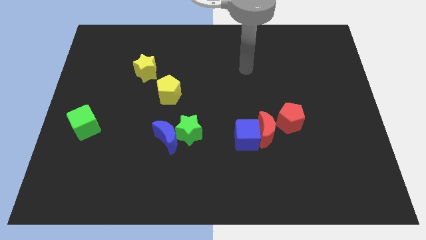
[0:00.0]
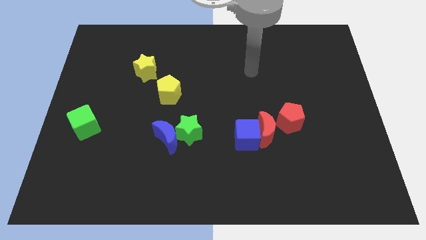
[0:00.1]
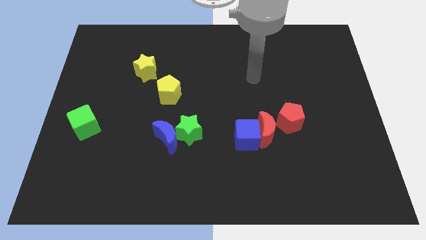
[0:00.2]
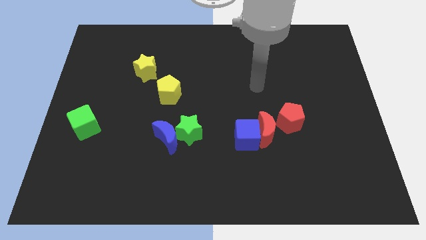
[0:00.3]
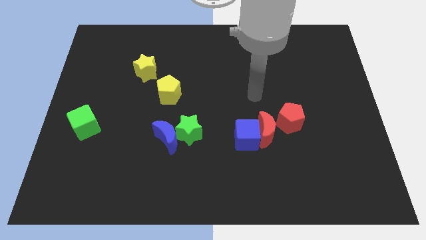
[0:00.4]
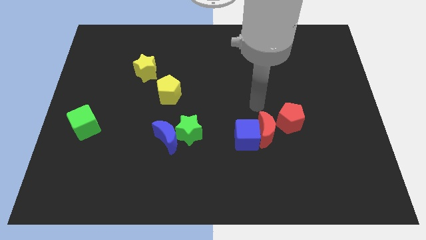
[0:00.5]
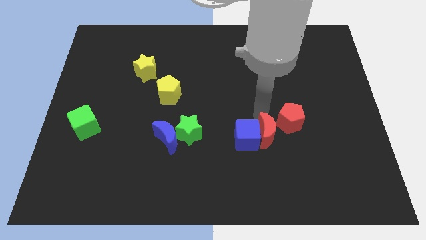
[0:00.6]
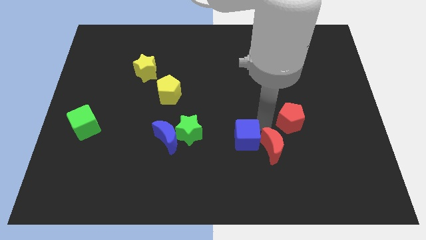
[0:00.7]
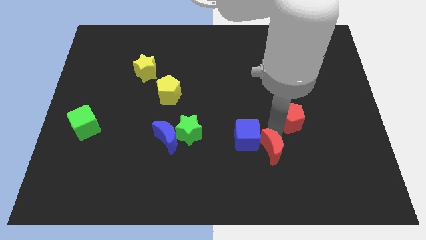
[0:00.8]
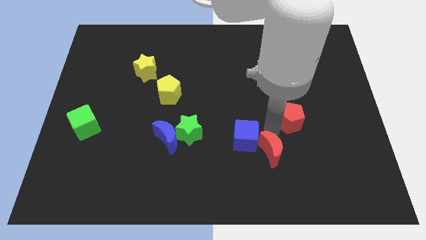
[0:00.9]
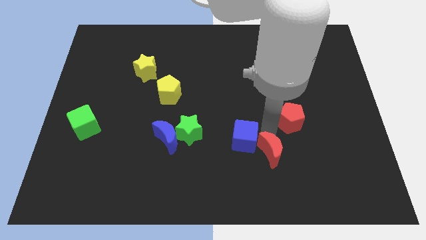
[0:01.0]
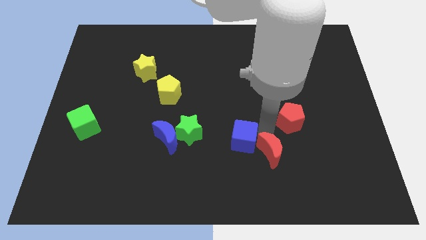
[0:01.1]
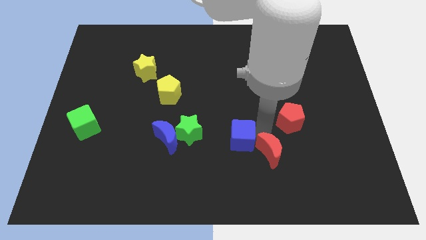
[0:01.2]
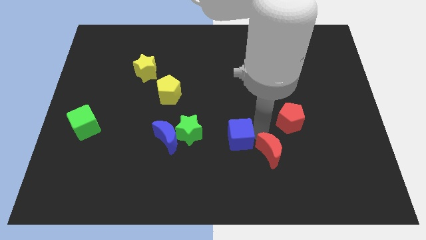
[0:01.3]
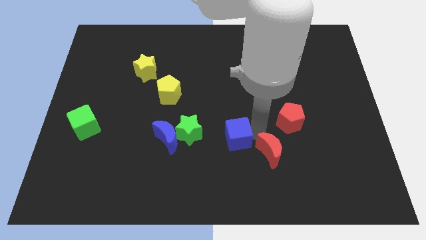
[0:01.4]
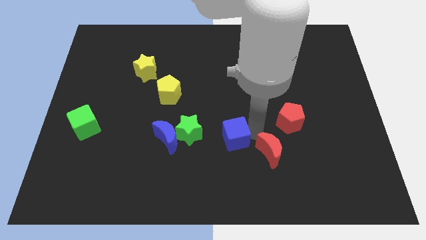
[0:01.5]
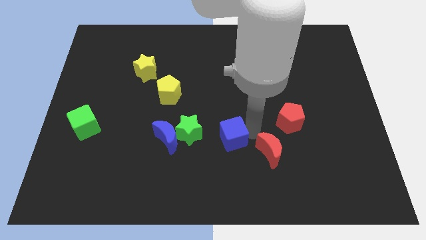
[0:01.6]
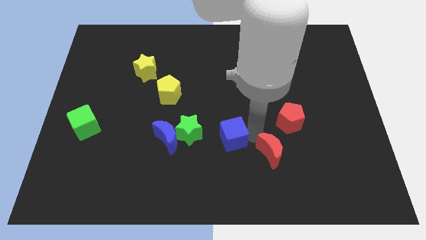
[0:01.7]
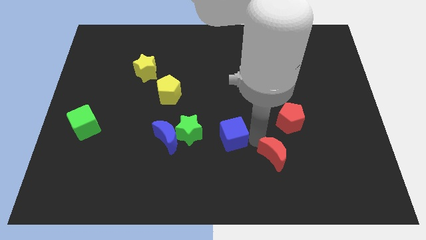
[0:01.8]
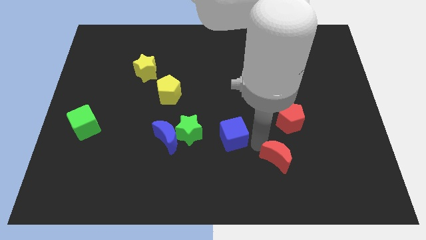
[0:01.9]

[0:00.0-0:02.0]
separate the blue cube from the red moon

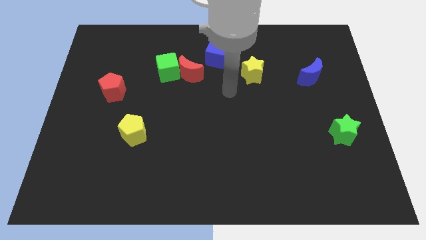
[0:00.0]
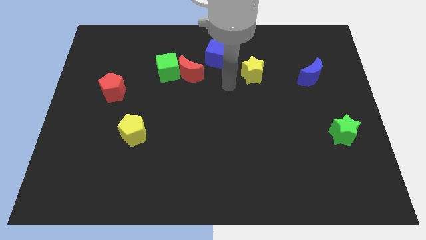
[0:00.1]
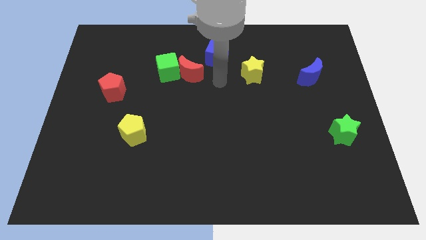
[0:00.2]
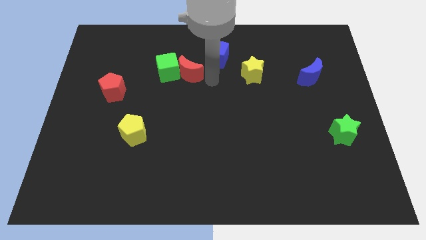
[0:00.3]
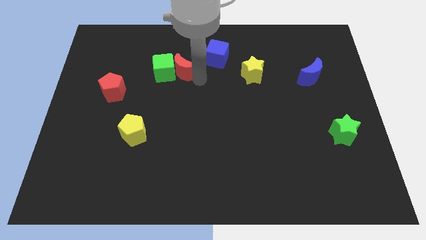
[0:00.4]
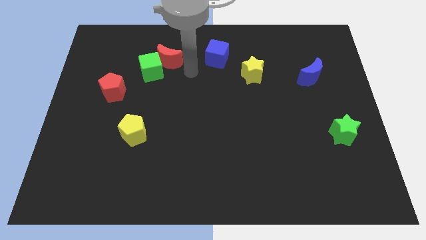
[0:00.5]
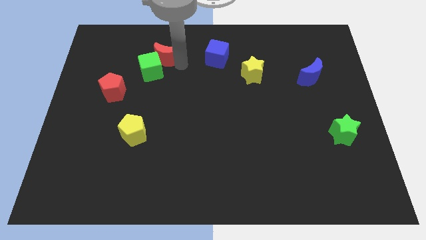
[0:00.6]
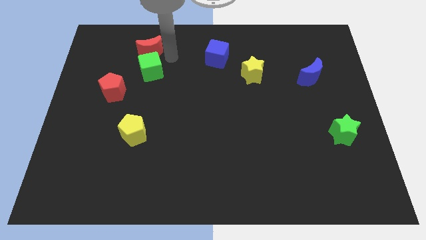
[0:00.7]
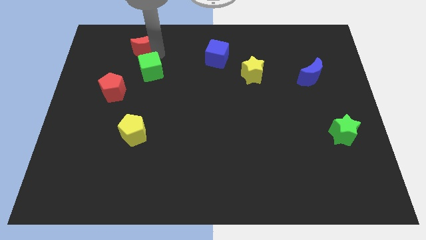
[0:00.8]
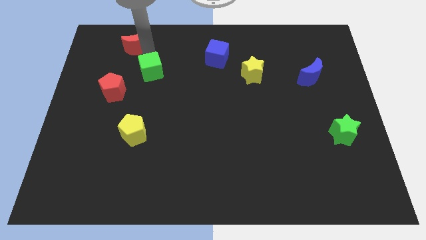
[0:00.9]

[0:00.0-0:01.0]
pull the green cube apart from the red moon

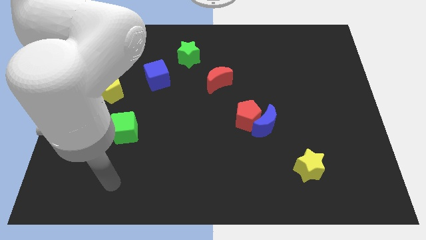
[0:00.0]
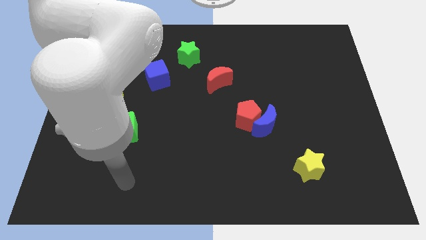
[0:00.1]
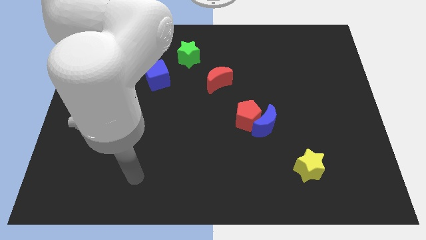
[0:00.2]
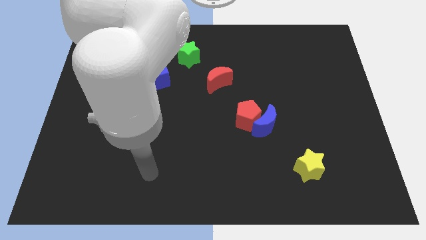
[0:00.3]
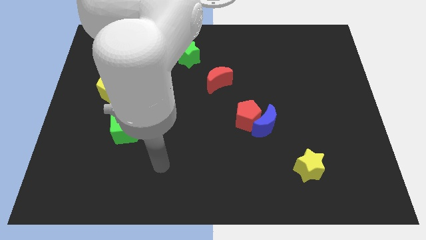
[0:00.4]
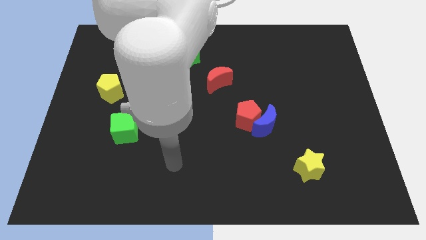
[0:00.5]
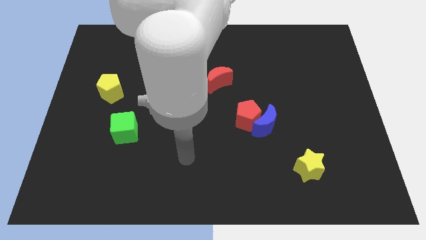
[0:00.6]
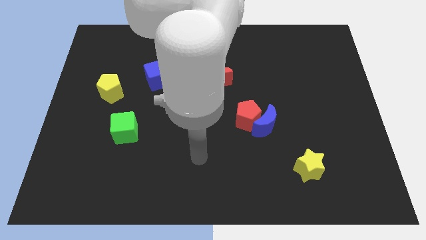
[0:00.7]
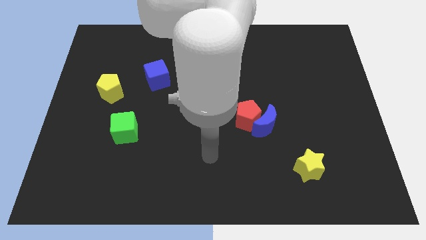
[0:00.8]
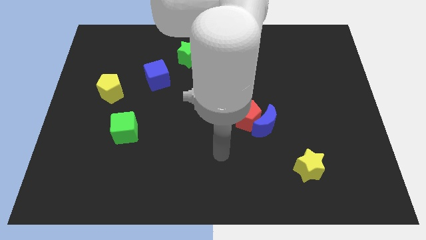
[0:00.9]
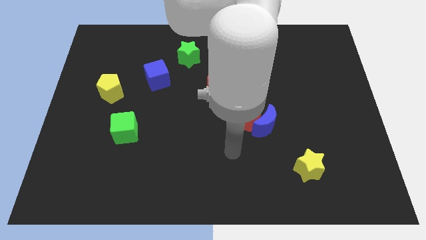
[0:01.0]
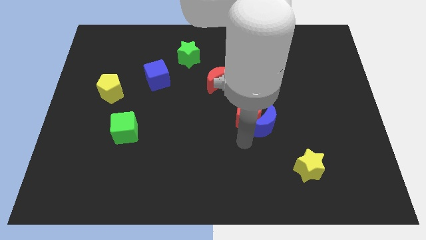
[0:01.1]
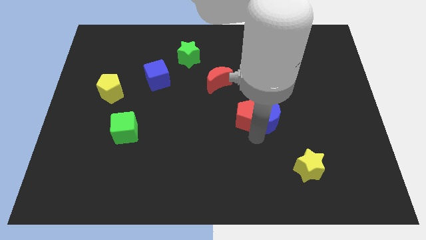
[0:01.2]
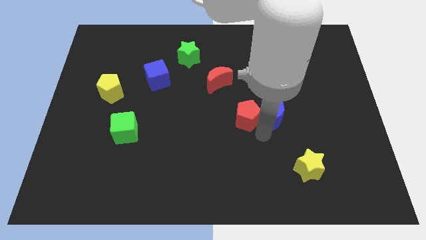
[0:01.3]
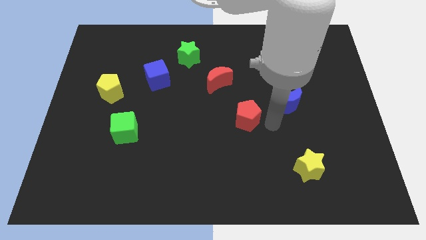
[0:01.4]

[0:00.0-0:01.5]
separate the red pentagon from the blue moon

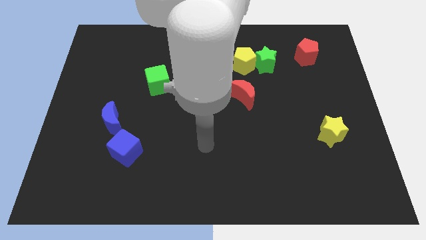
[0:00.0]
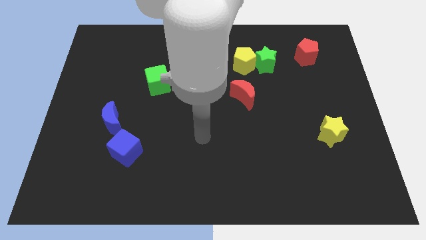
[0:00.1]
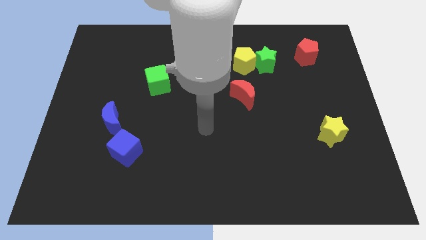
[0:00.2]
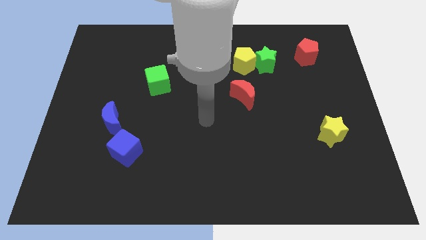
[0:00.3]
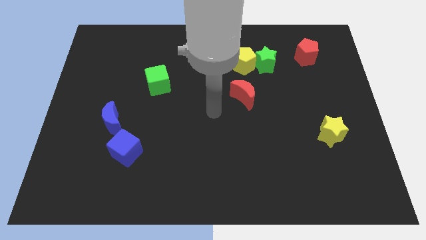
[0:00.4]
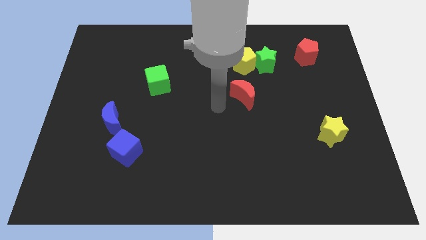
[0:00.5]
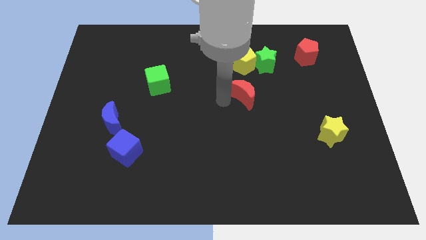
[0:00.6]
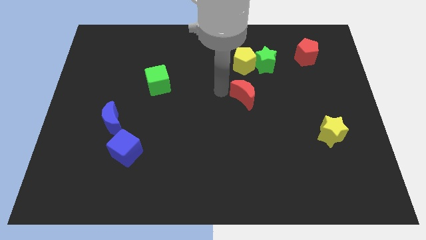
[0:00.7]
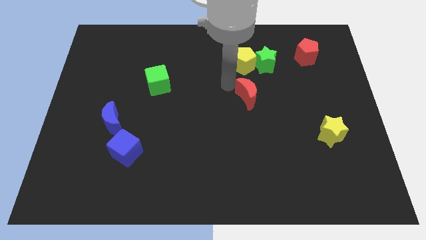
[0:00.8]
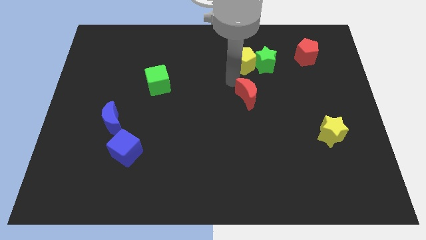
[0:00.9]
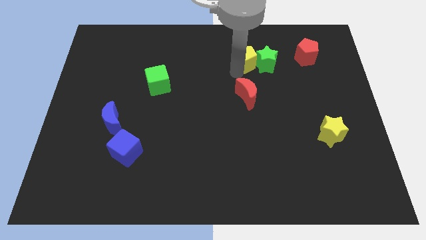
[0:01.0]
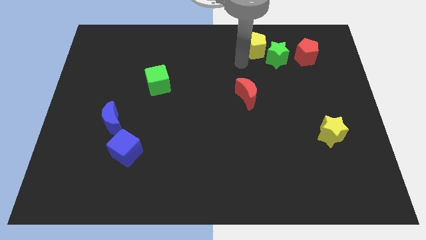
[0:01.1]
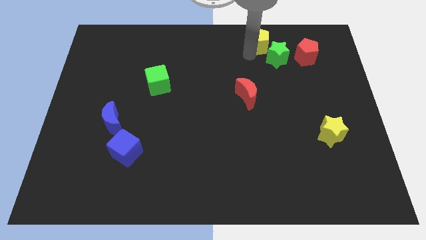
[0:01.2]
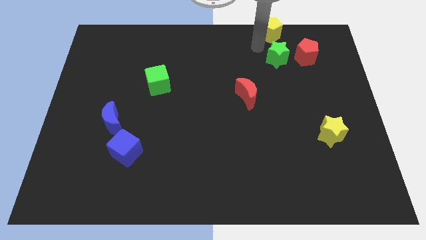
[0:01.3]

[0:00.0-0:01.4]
move the green star away from the yellow pentagon

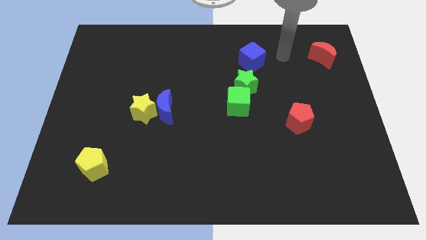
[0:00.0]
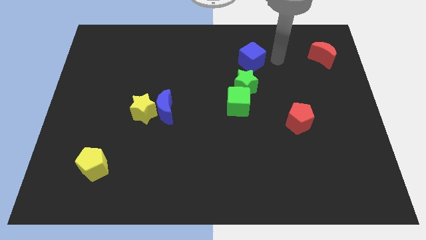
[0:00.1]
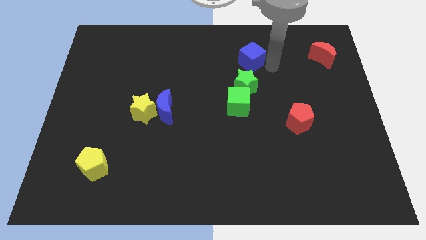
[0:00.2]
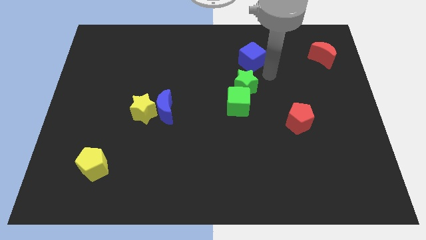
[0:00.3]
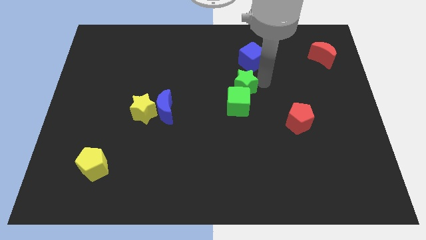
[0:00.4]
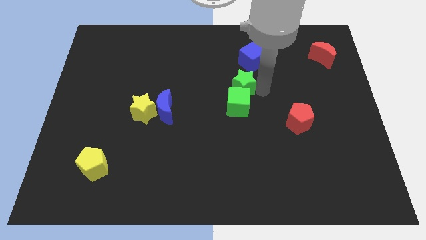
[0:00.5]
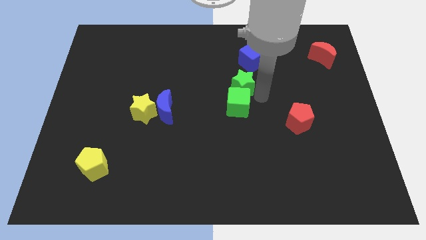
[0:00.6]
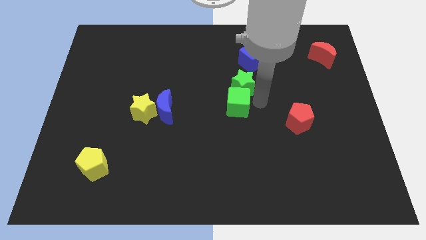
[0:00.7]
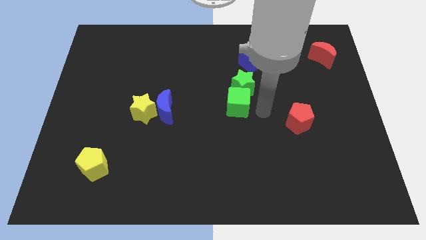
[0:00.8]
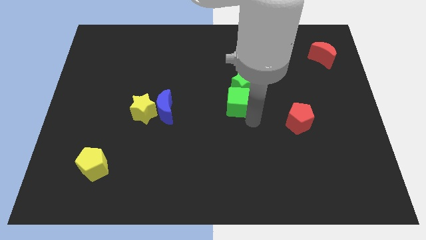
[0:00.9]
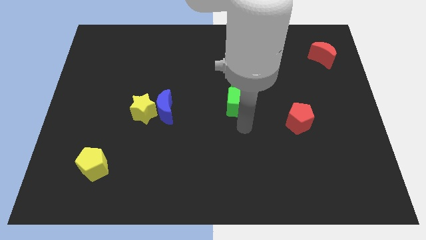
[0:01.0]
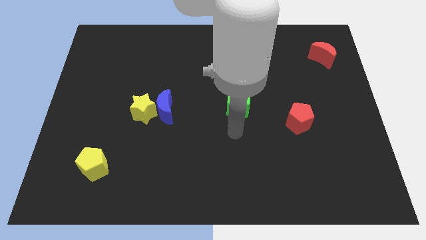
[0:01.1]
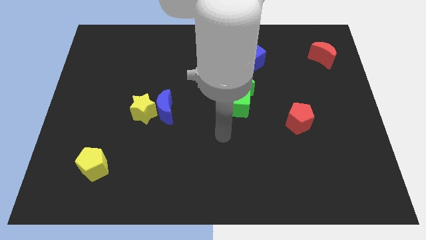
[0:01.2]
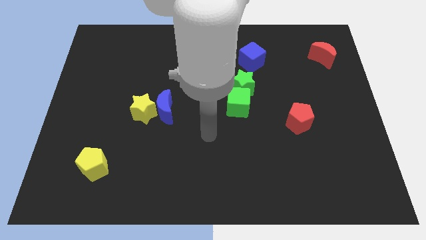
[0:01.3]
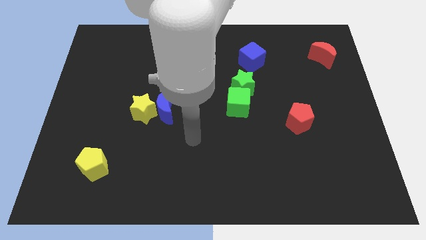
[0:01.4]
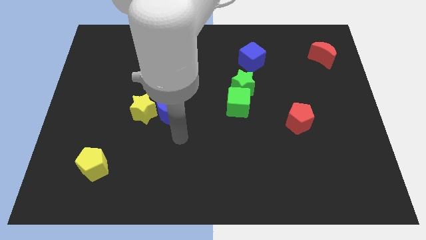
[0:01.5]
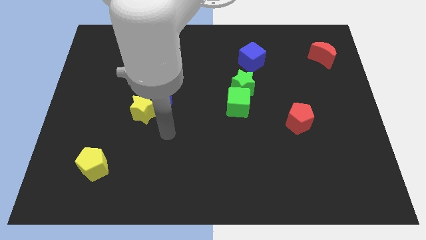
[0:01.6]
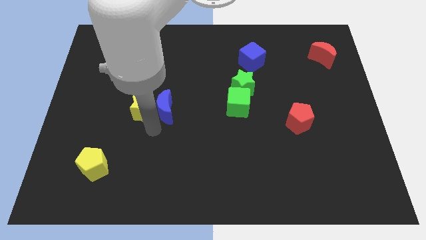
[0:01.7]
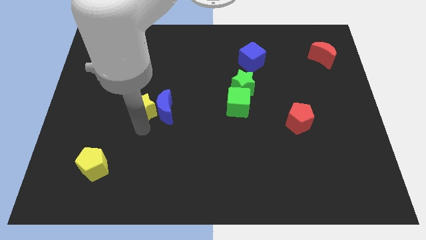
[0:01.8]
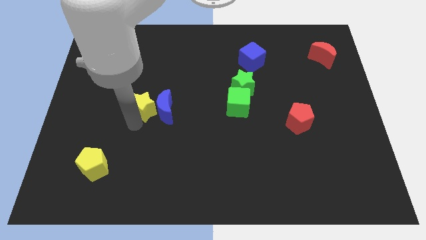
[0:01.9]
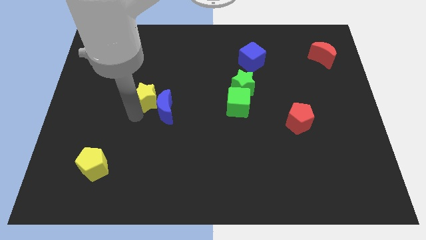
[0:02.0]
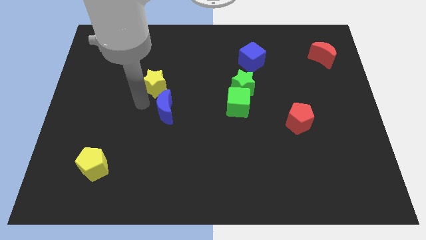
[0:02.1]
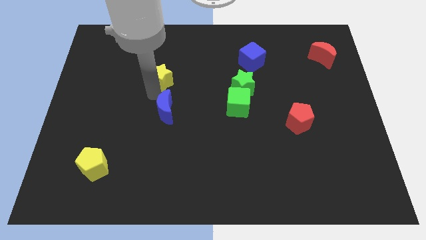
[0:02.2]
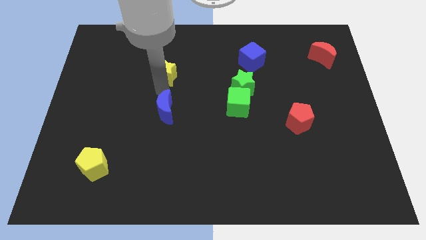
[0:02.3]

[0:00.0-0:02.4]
move the blue moon away from the yellow star

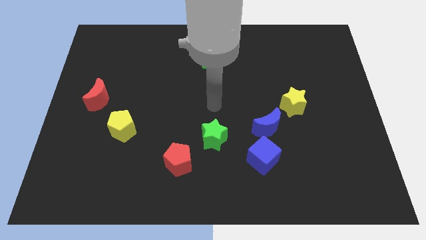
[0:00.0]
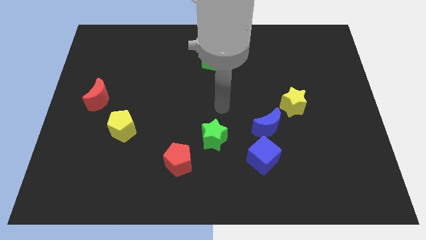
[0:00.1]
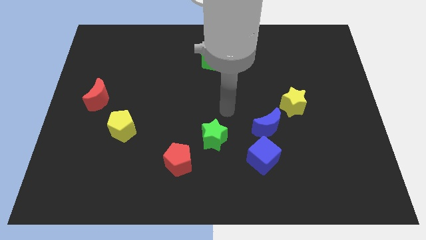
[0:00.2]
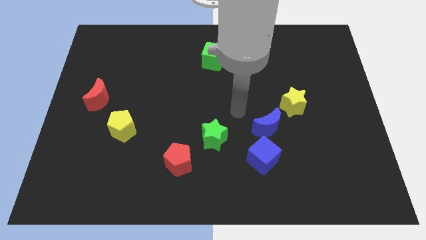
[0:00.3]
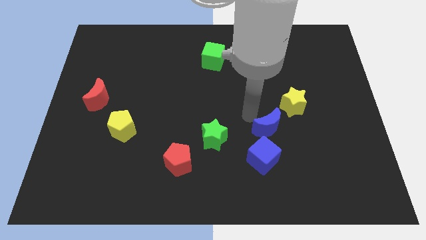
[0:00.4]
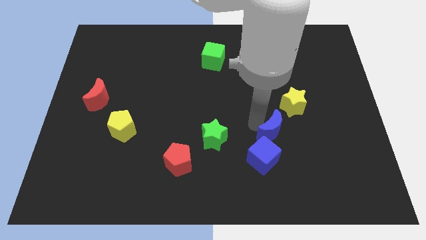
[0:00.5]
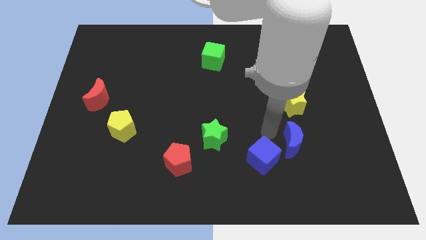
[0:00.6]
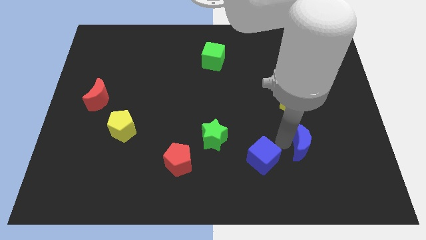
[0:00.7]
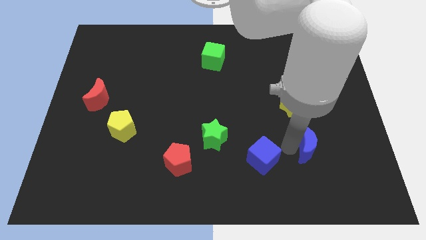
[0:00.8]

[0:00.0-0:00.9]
move the blue cube away from the blue moon

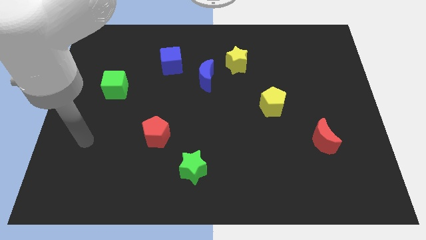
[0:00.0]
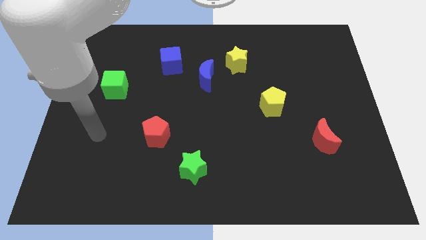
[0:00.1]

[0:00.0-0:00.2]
move the yellow star away from the blue moon
